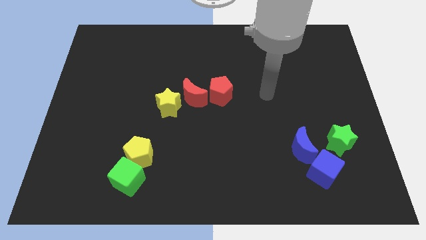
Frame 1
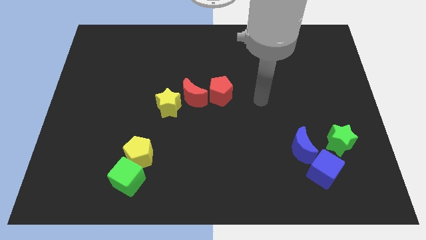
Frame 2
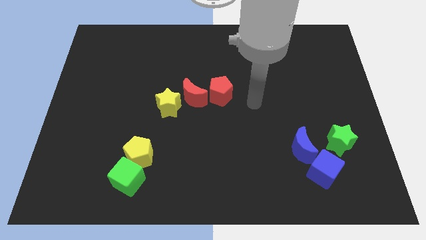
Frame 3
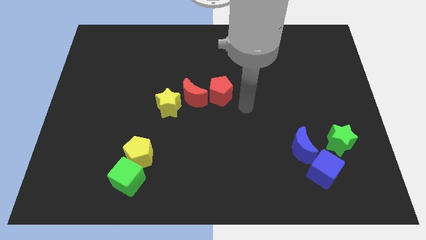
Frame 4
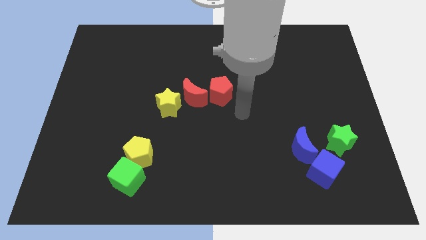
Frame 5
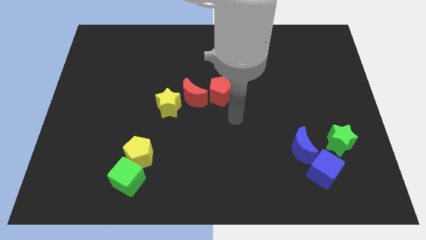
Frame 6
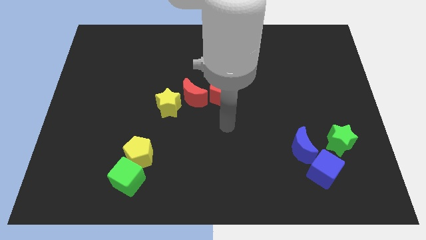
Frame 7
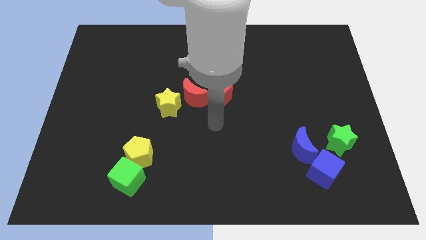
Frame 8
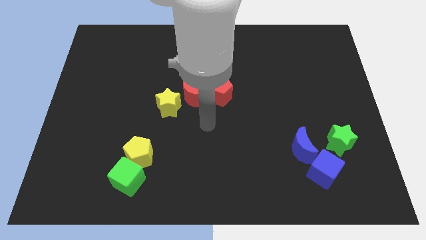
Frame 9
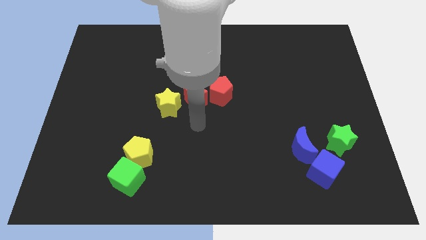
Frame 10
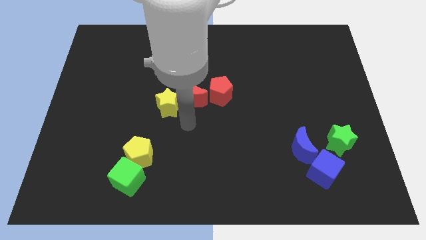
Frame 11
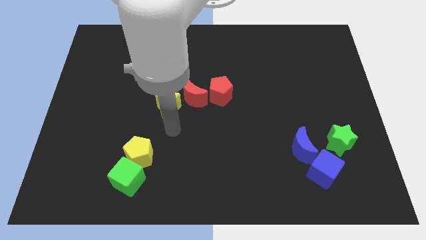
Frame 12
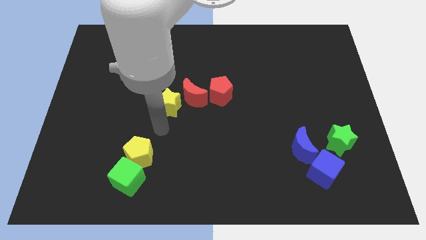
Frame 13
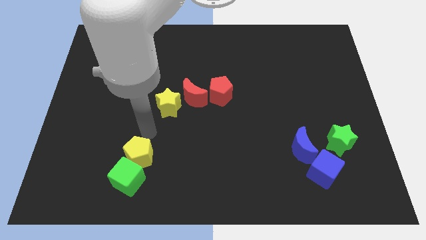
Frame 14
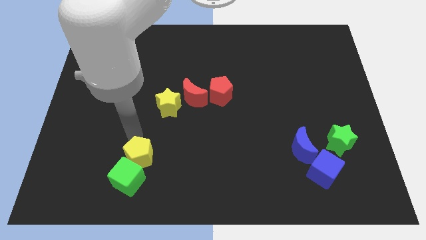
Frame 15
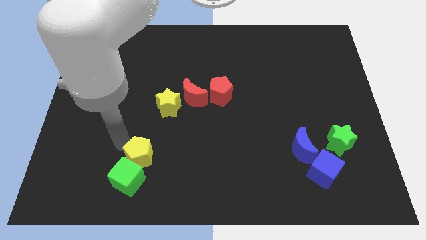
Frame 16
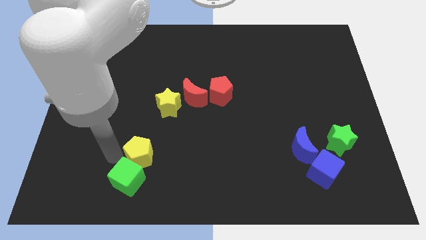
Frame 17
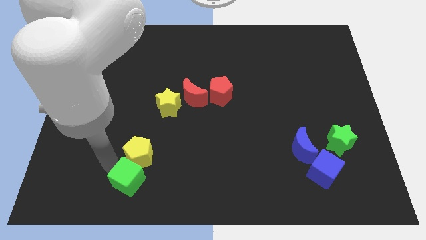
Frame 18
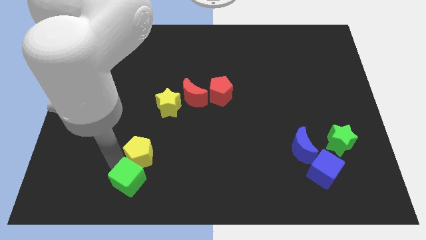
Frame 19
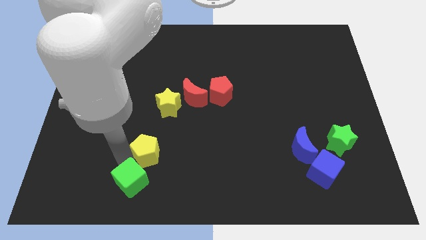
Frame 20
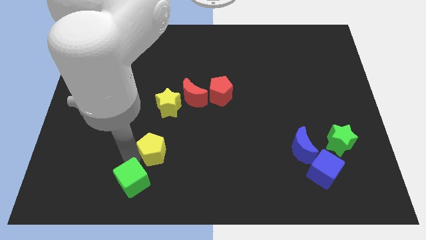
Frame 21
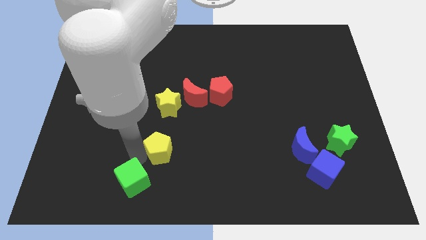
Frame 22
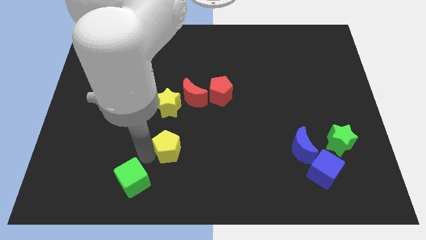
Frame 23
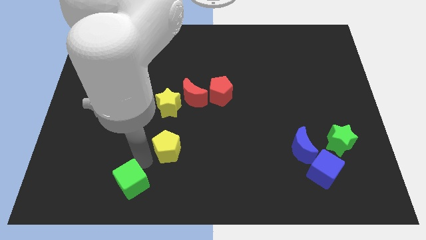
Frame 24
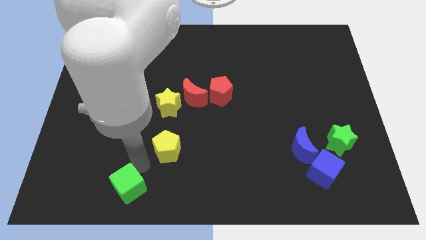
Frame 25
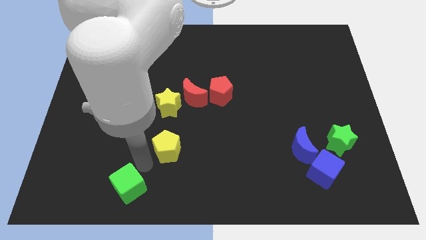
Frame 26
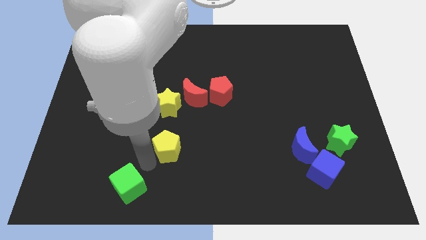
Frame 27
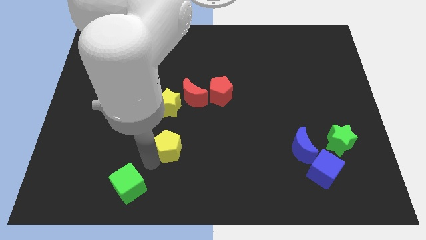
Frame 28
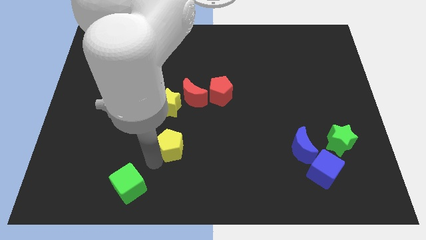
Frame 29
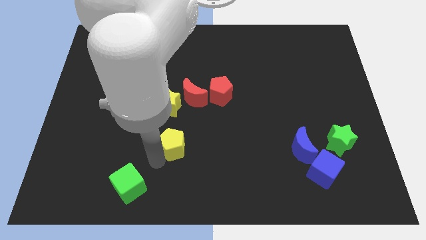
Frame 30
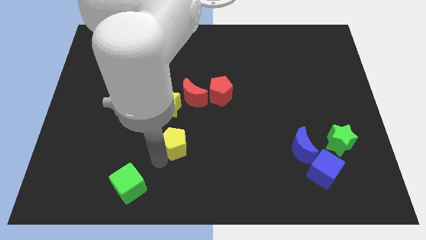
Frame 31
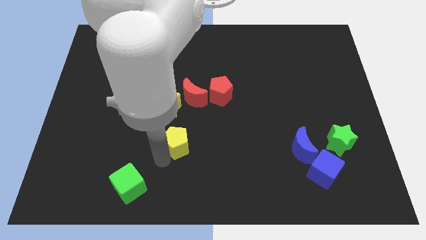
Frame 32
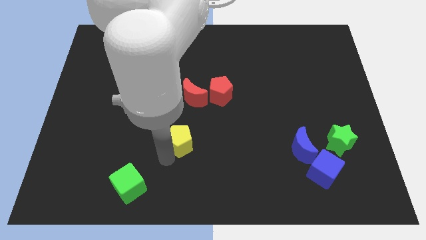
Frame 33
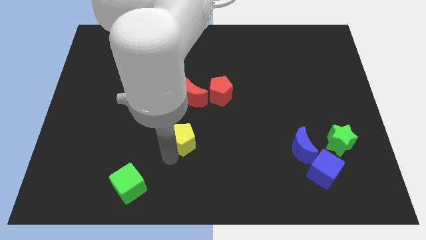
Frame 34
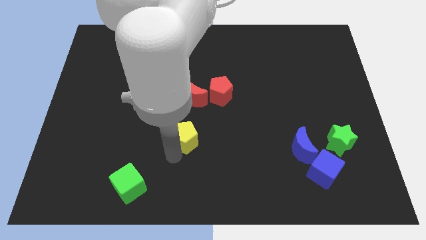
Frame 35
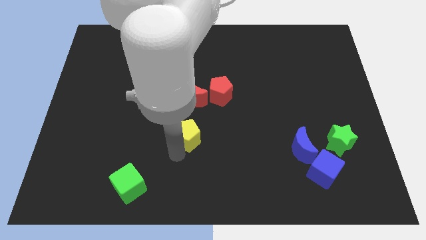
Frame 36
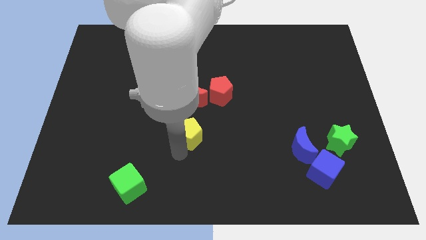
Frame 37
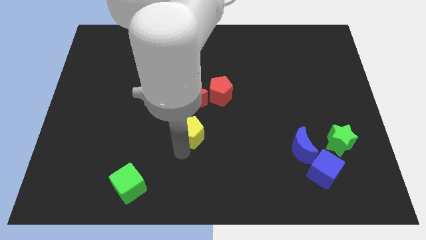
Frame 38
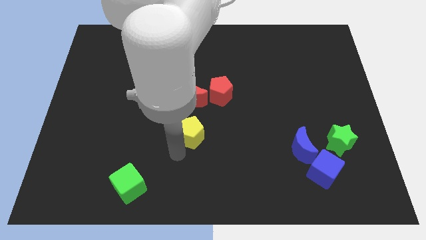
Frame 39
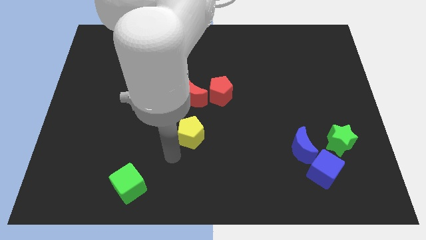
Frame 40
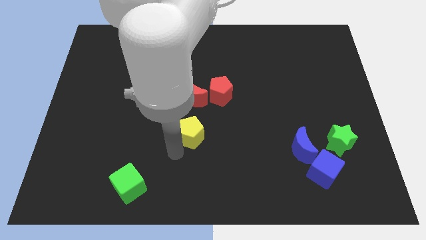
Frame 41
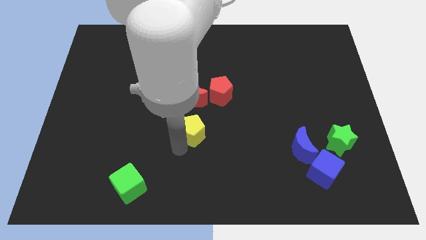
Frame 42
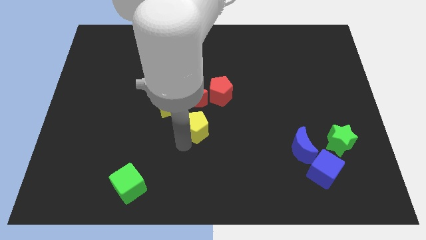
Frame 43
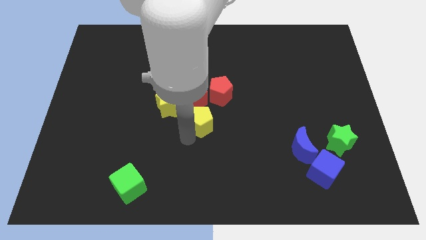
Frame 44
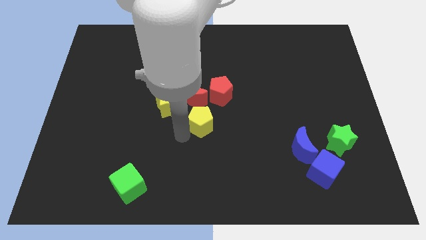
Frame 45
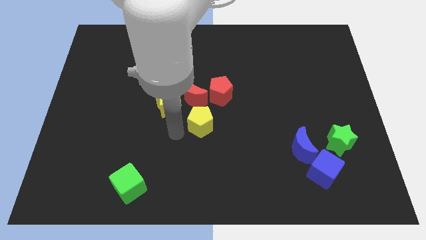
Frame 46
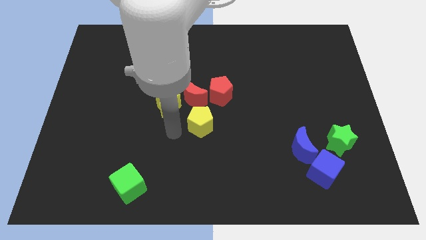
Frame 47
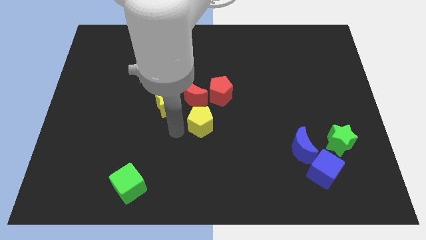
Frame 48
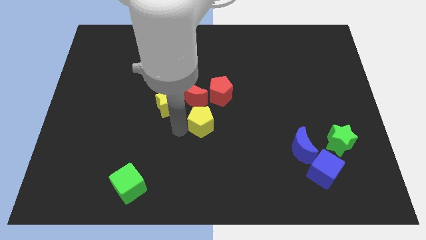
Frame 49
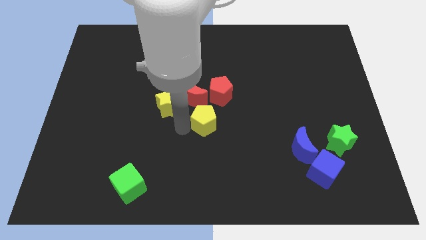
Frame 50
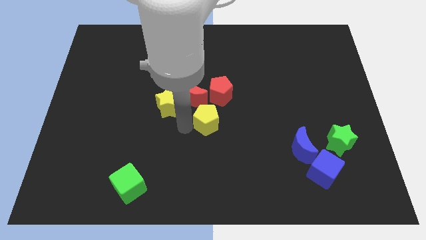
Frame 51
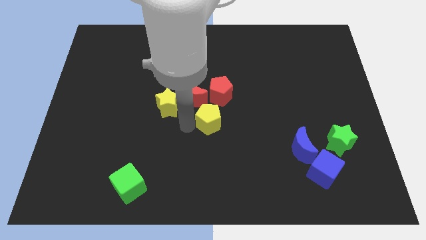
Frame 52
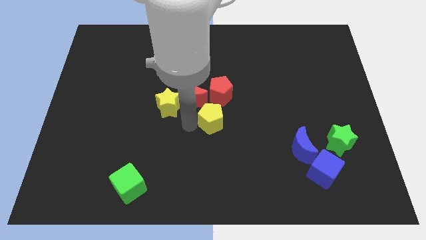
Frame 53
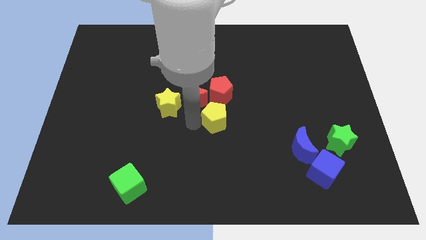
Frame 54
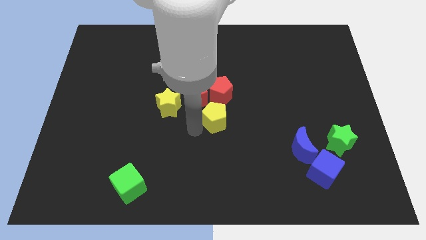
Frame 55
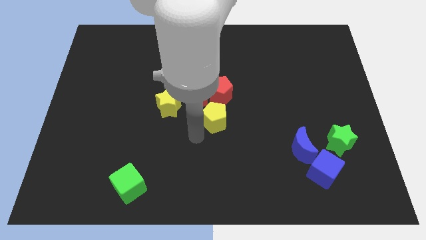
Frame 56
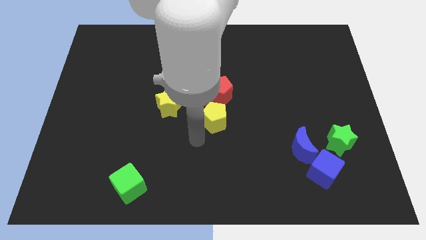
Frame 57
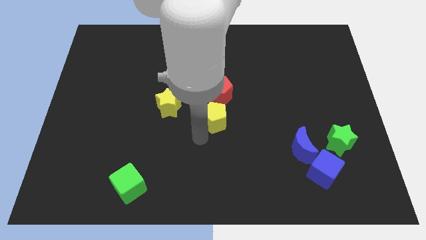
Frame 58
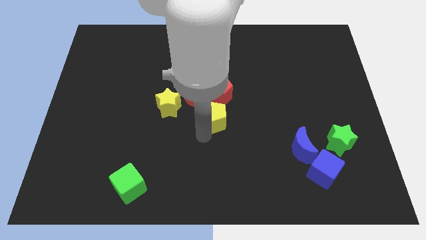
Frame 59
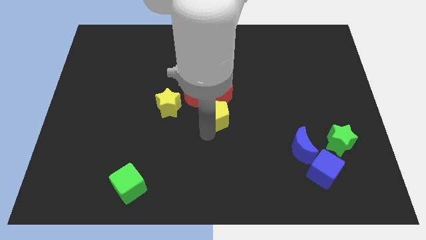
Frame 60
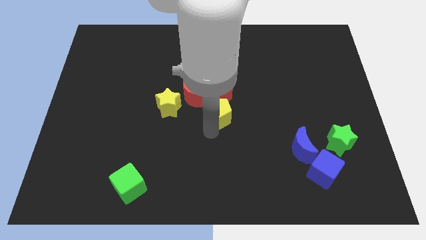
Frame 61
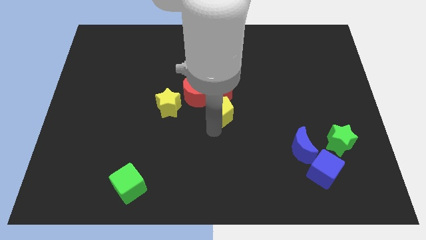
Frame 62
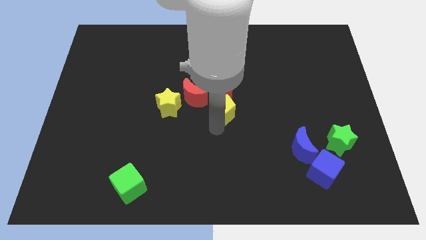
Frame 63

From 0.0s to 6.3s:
push the yellow pentagon up and right

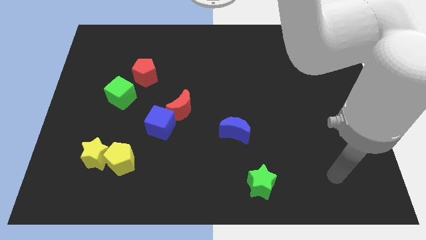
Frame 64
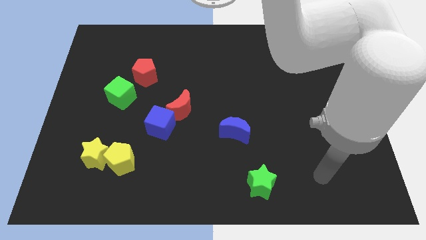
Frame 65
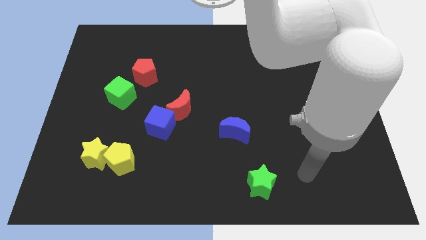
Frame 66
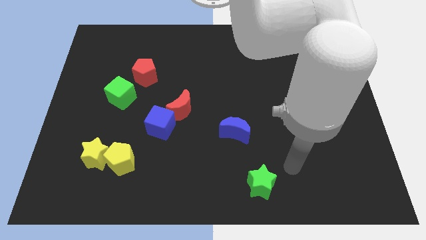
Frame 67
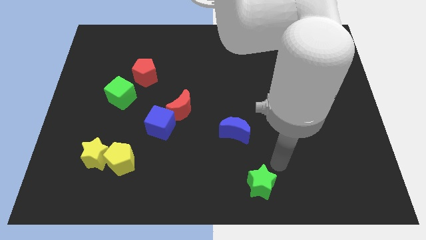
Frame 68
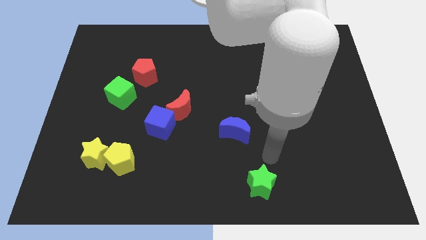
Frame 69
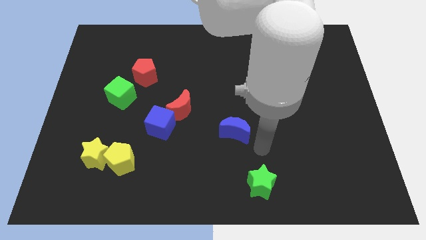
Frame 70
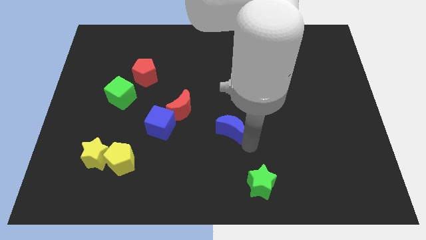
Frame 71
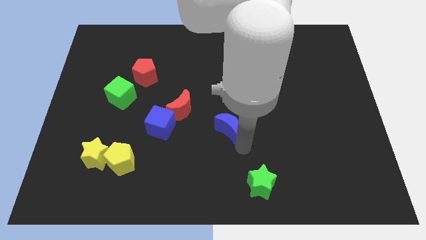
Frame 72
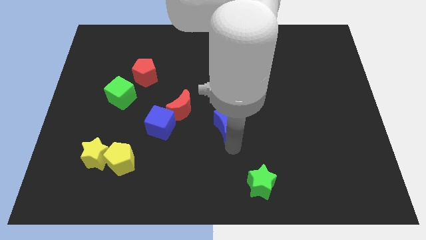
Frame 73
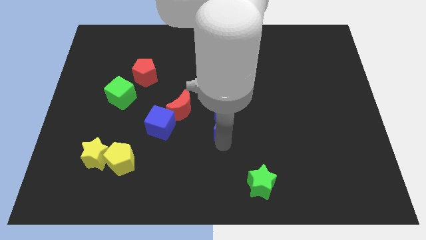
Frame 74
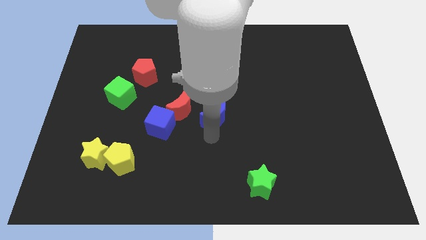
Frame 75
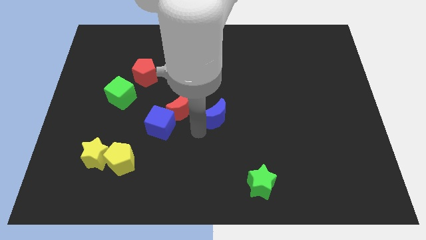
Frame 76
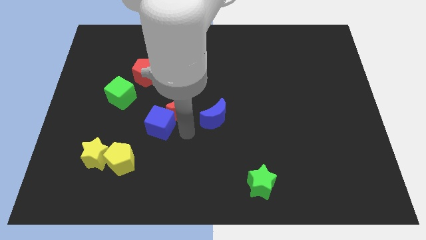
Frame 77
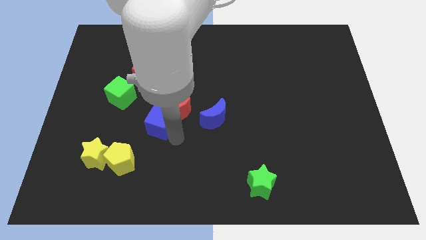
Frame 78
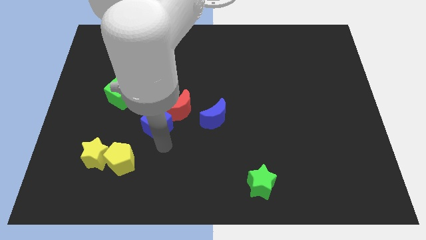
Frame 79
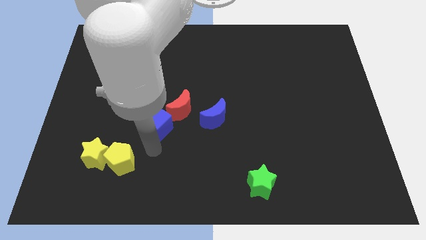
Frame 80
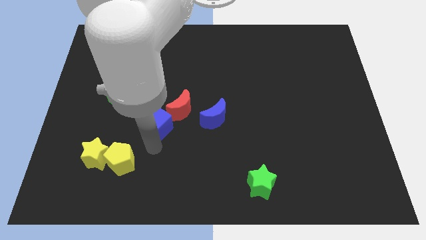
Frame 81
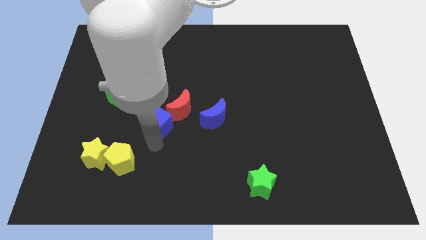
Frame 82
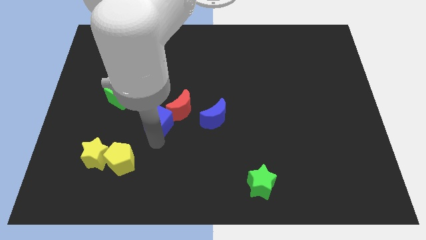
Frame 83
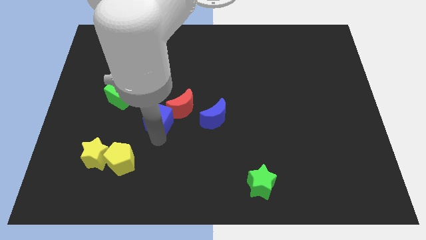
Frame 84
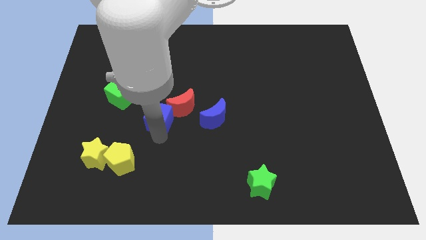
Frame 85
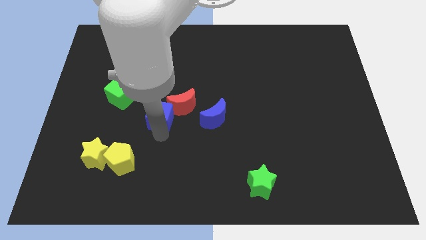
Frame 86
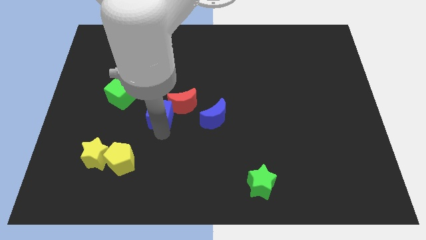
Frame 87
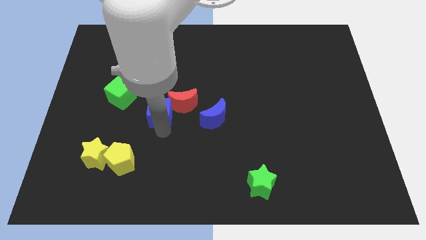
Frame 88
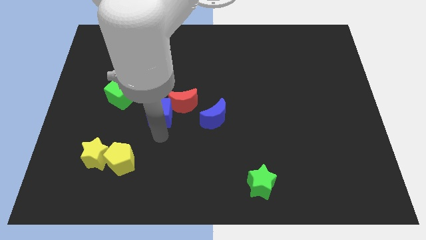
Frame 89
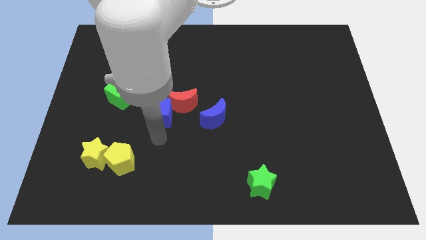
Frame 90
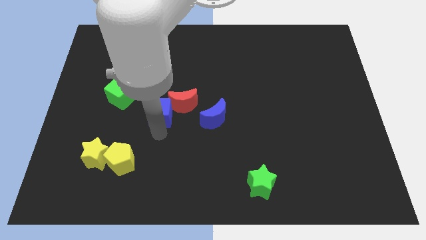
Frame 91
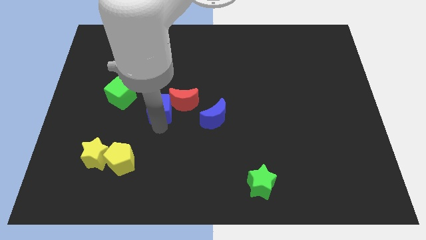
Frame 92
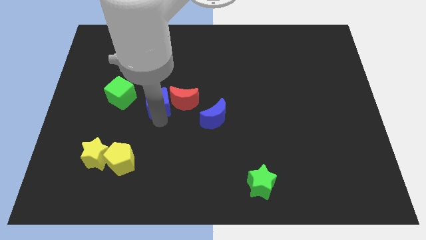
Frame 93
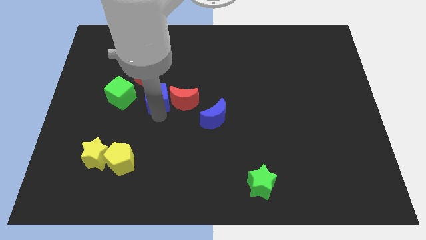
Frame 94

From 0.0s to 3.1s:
slide the blue cube up slightly
